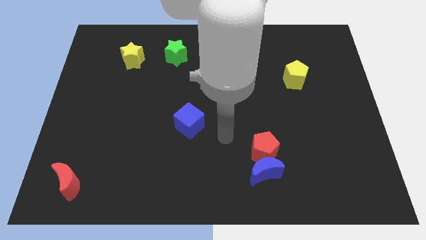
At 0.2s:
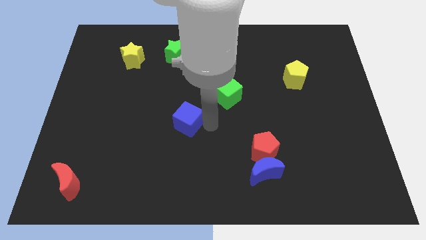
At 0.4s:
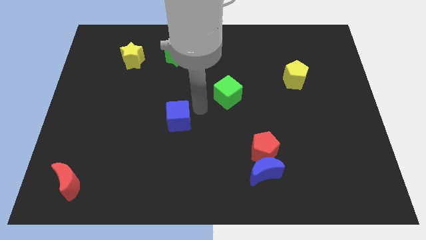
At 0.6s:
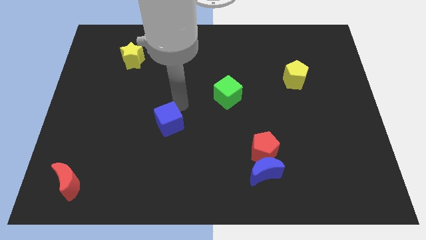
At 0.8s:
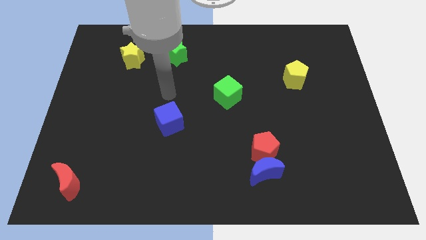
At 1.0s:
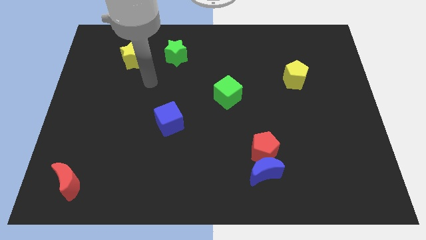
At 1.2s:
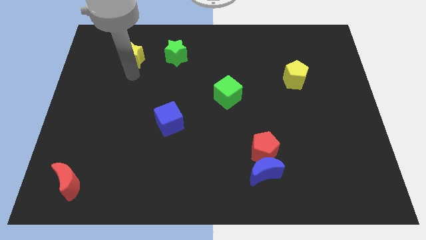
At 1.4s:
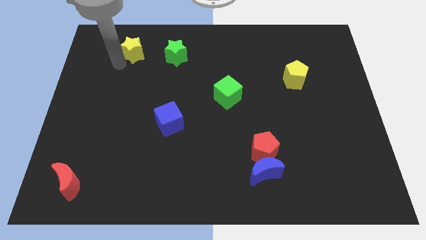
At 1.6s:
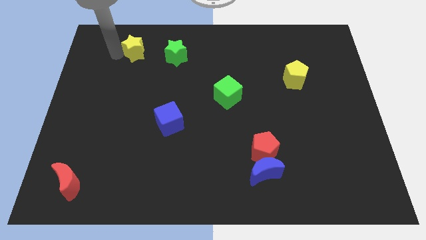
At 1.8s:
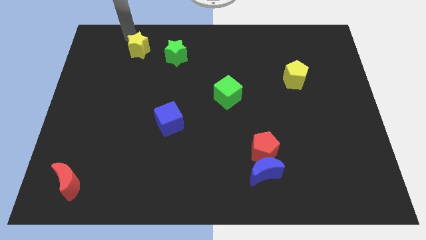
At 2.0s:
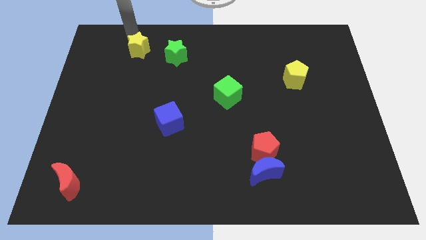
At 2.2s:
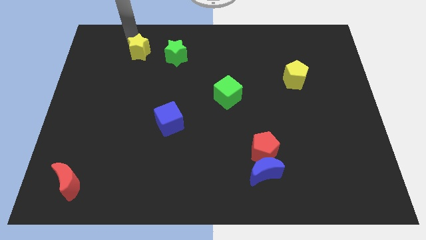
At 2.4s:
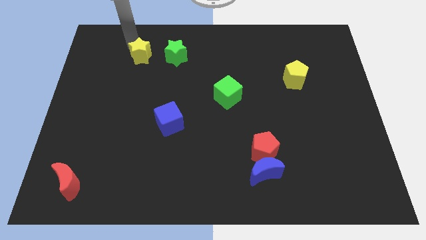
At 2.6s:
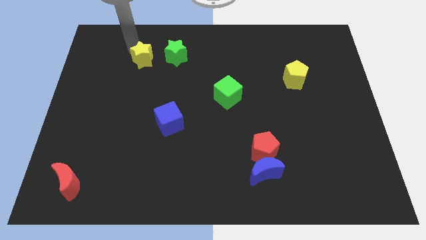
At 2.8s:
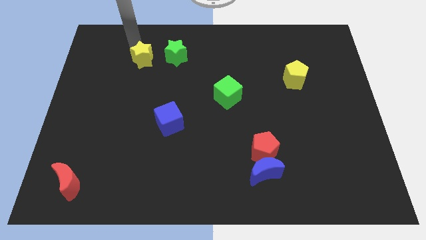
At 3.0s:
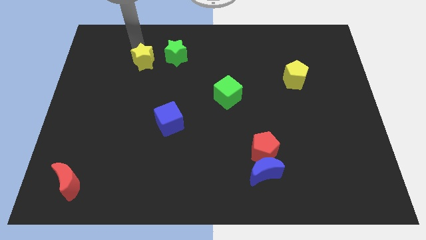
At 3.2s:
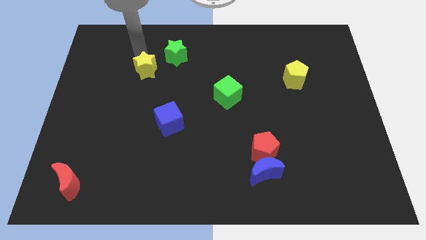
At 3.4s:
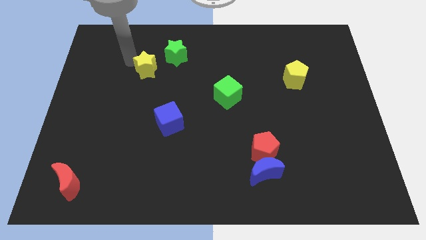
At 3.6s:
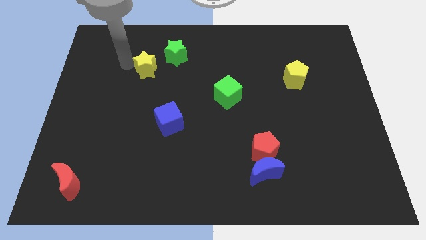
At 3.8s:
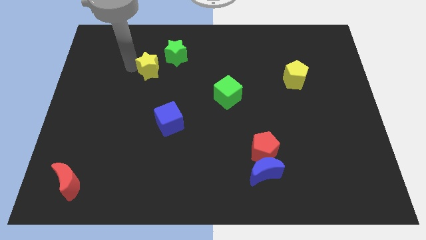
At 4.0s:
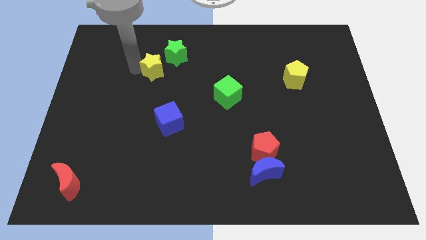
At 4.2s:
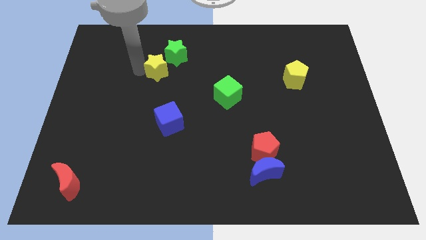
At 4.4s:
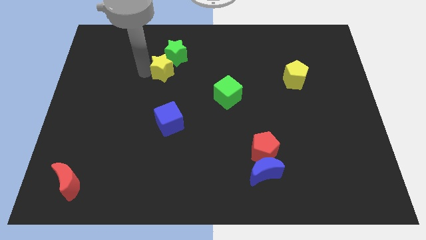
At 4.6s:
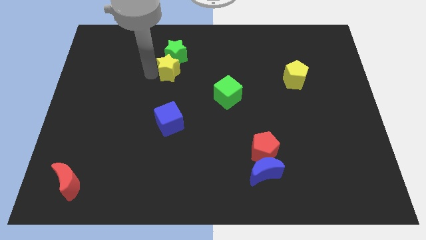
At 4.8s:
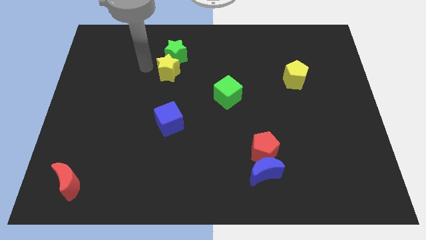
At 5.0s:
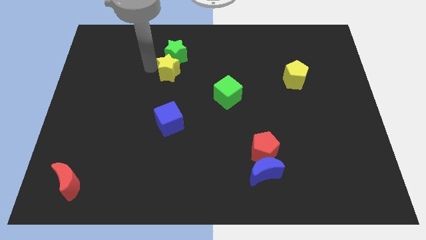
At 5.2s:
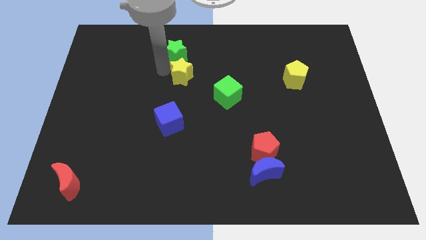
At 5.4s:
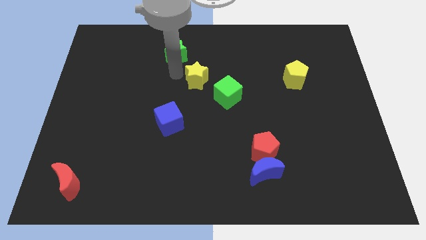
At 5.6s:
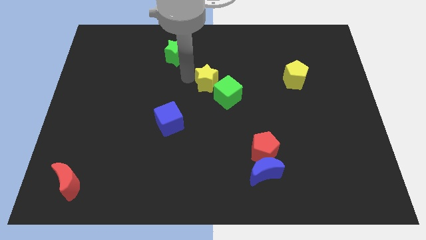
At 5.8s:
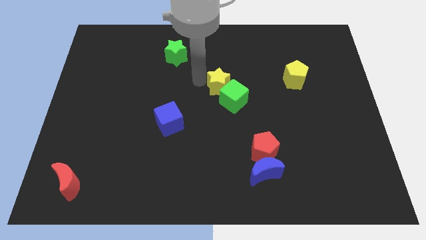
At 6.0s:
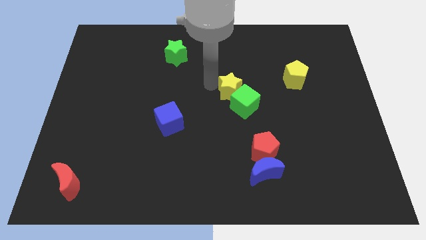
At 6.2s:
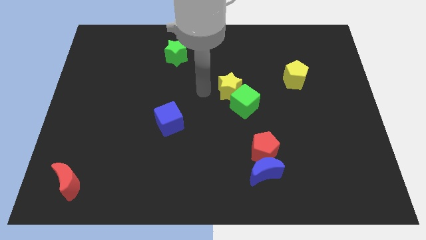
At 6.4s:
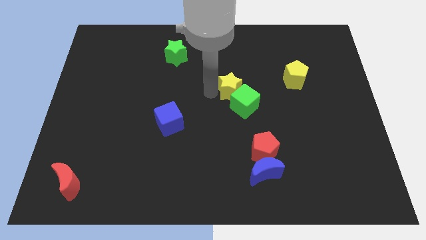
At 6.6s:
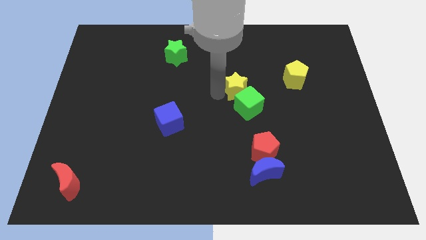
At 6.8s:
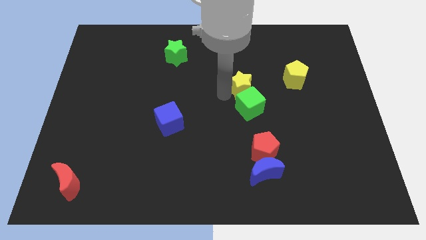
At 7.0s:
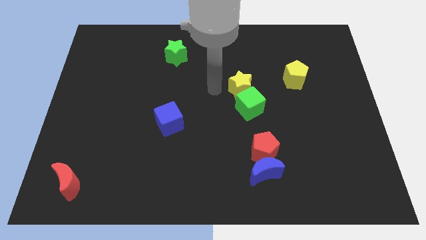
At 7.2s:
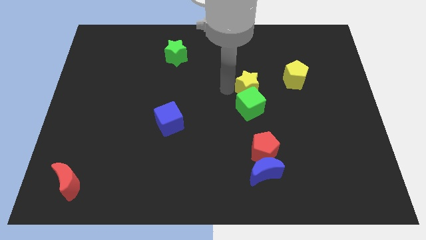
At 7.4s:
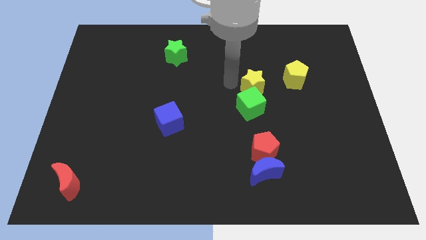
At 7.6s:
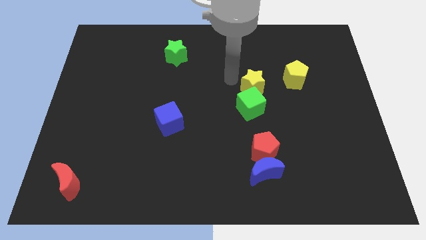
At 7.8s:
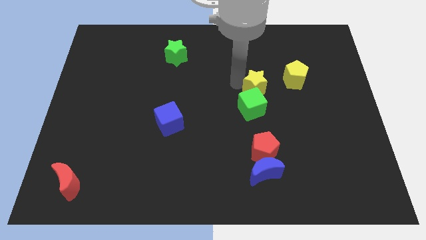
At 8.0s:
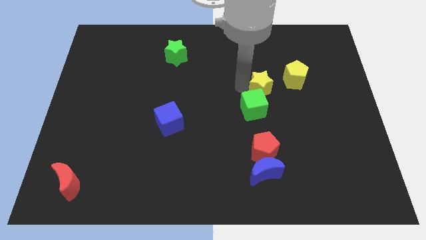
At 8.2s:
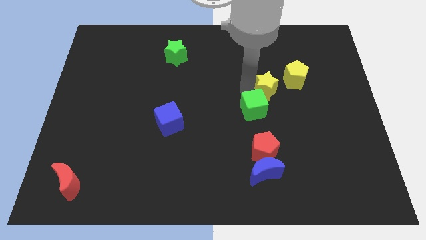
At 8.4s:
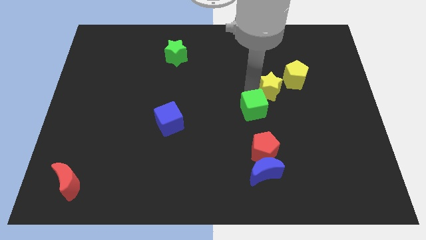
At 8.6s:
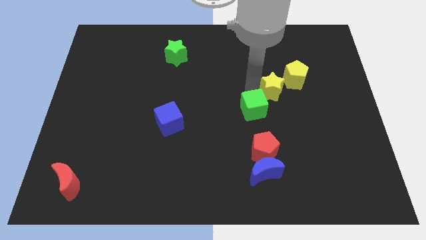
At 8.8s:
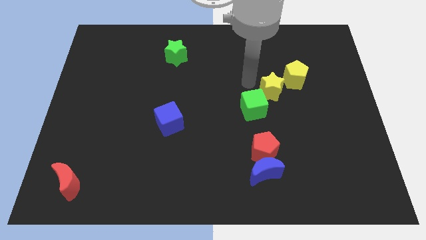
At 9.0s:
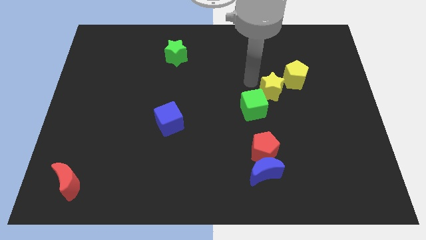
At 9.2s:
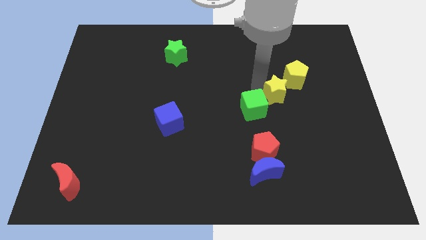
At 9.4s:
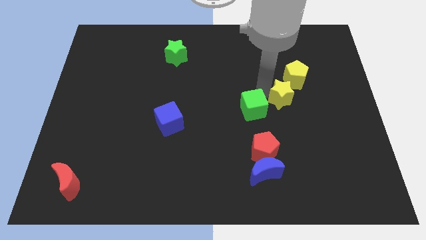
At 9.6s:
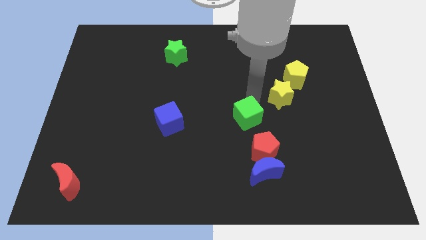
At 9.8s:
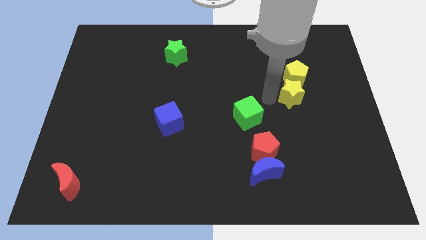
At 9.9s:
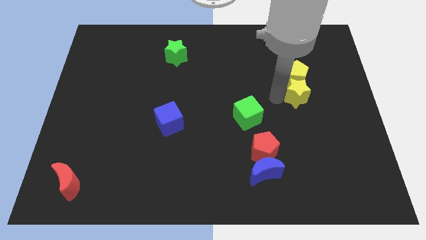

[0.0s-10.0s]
put the yellow star to the bottom right side of the yellow pentagon

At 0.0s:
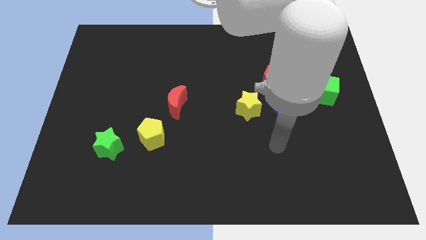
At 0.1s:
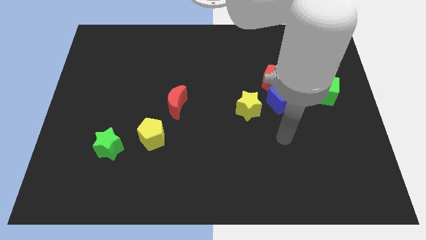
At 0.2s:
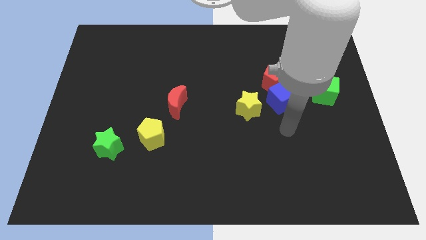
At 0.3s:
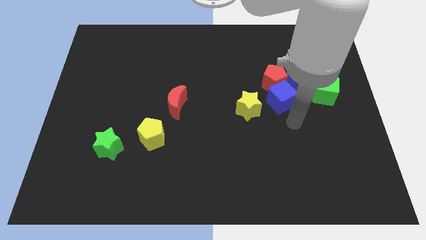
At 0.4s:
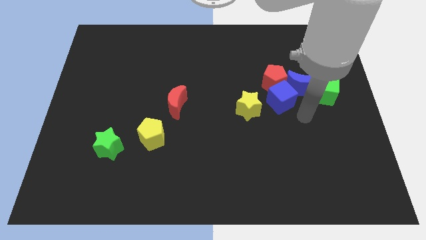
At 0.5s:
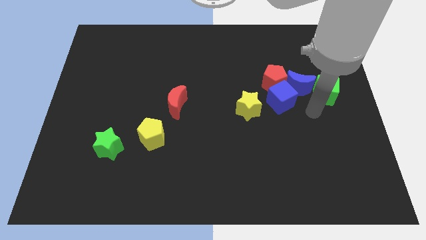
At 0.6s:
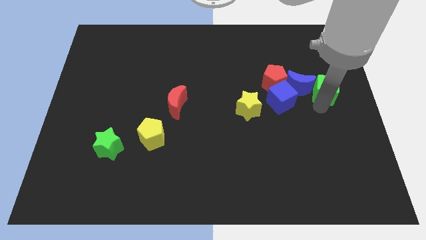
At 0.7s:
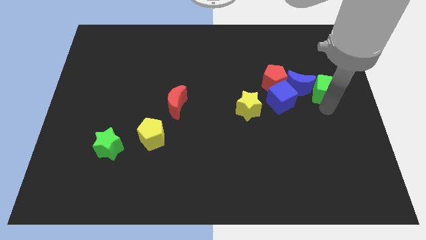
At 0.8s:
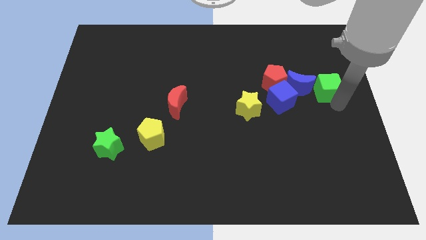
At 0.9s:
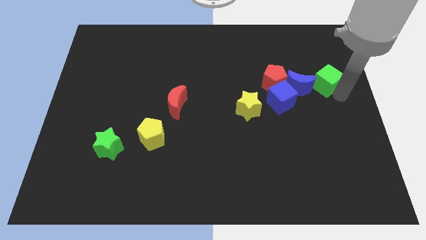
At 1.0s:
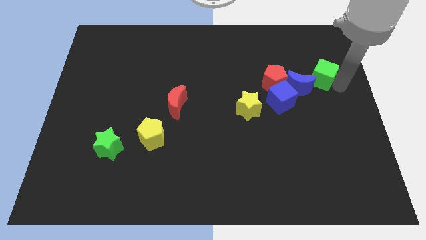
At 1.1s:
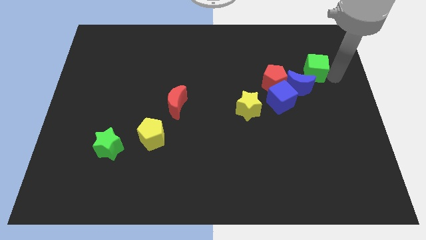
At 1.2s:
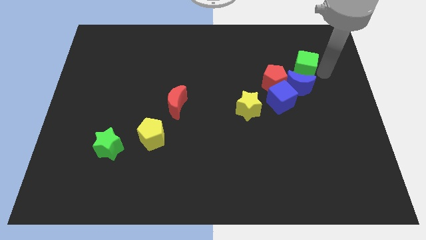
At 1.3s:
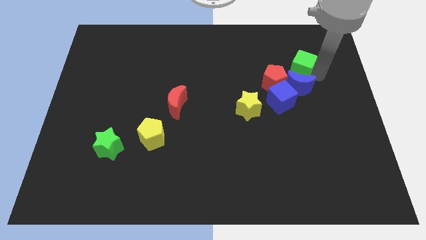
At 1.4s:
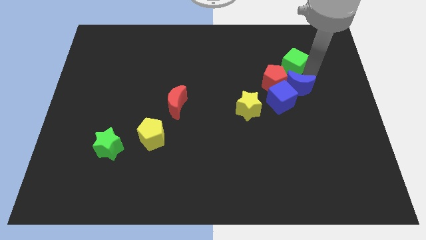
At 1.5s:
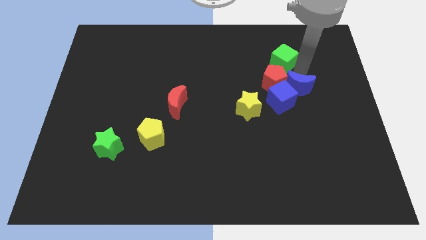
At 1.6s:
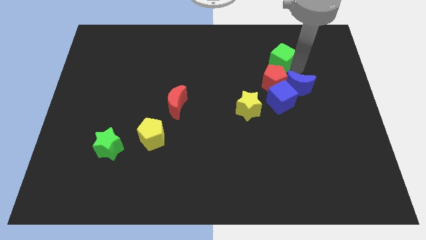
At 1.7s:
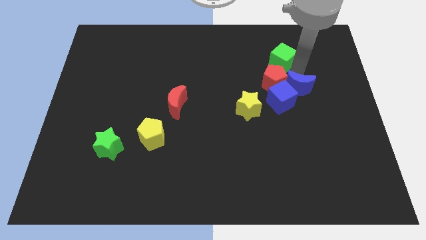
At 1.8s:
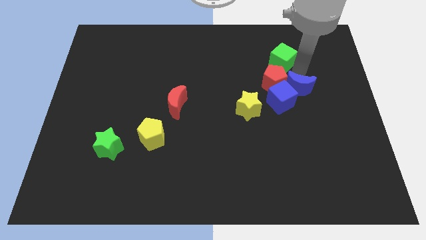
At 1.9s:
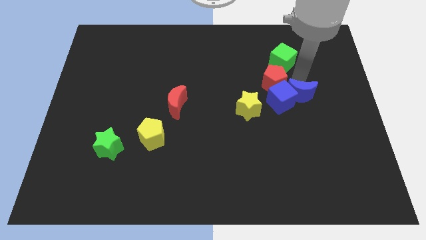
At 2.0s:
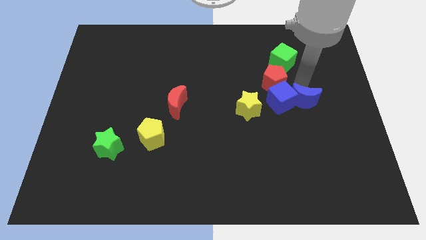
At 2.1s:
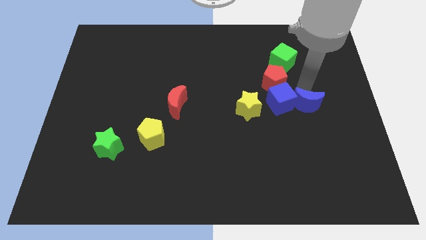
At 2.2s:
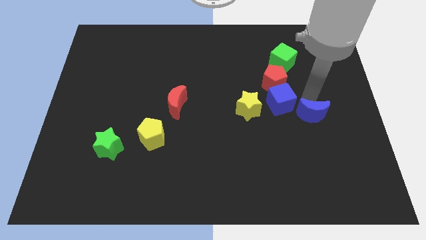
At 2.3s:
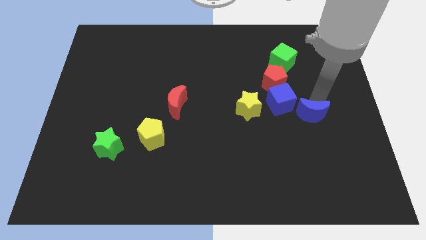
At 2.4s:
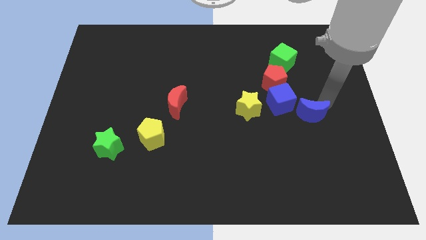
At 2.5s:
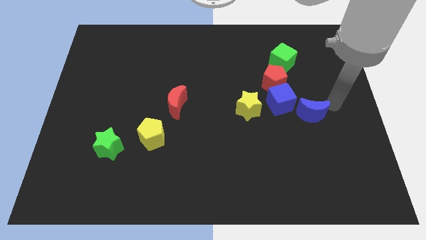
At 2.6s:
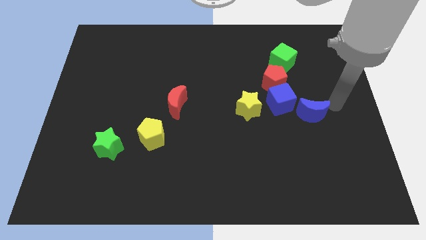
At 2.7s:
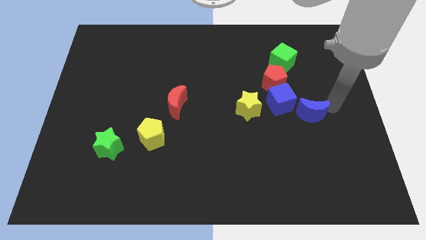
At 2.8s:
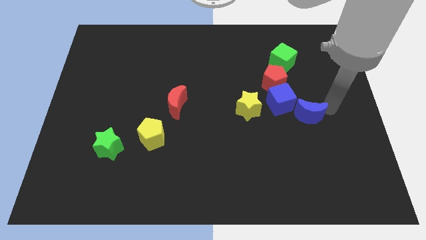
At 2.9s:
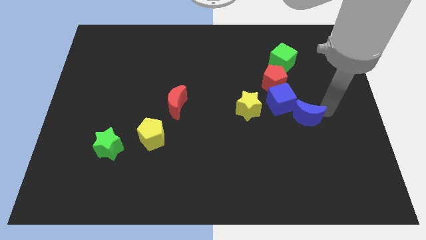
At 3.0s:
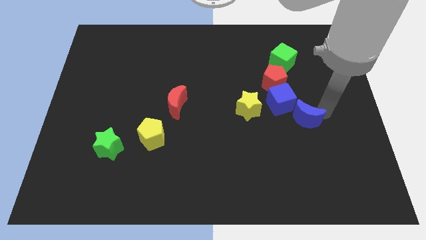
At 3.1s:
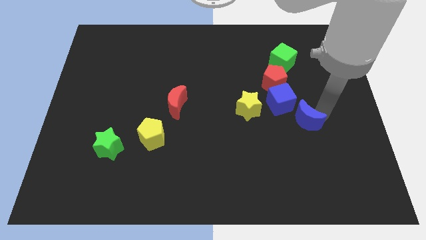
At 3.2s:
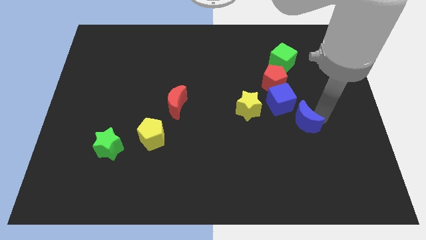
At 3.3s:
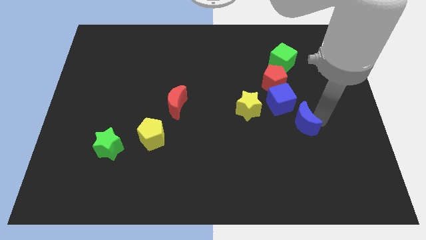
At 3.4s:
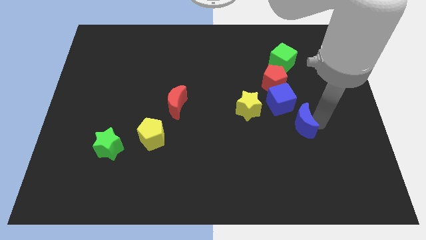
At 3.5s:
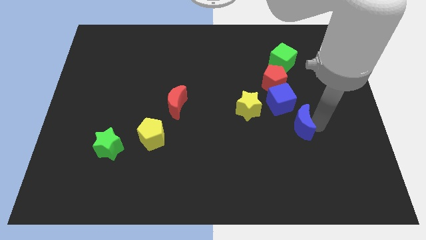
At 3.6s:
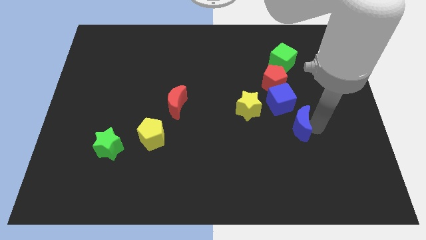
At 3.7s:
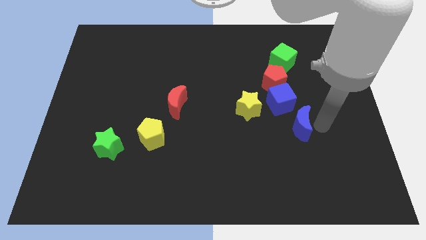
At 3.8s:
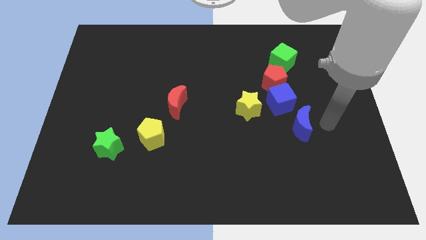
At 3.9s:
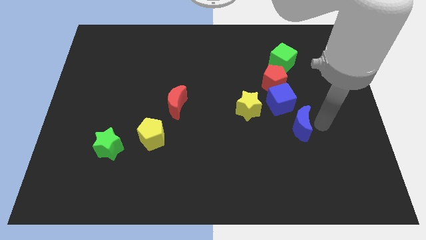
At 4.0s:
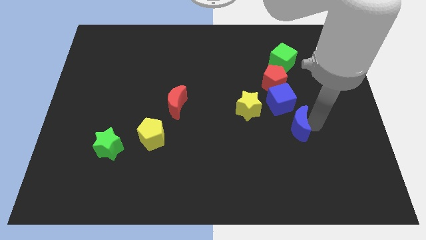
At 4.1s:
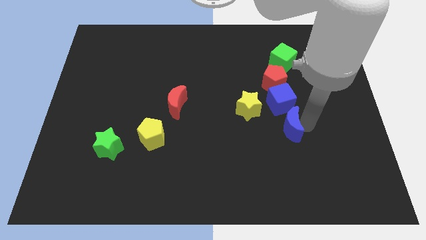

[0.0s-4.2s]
put the blue moon diagonally down and to the right of the yellow star
